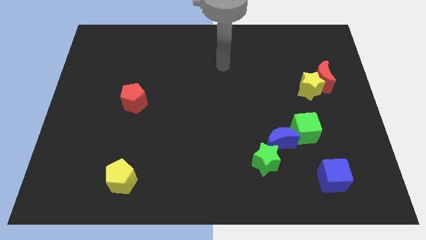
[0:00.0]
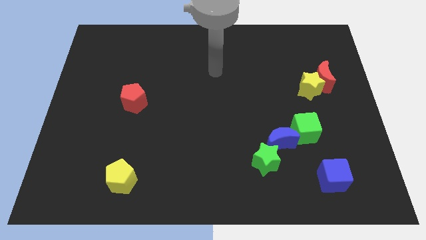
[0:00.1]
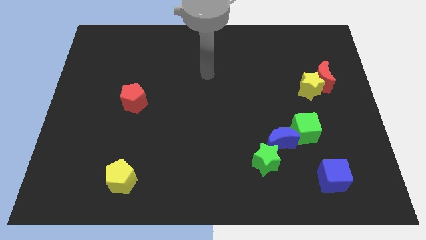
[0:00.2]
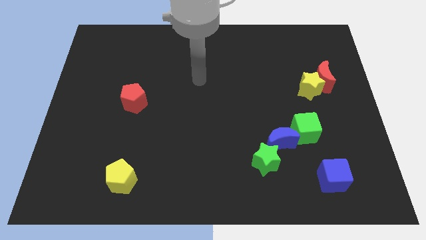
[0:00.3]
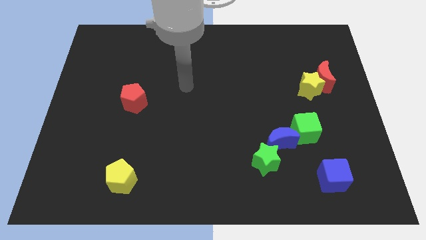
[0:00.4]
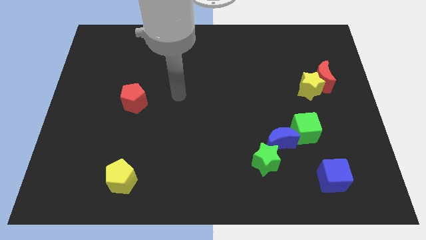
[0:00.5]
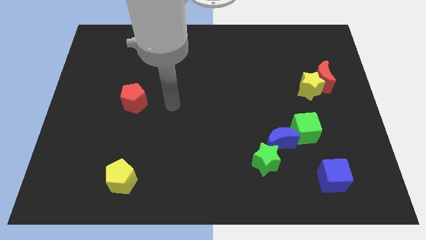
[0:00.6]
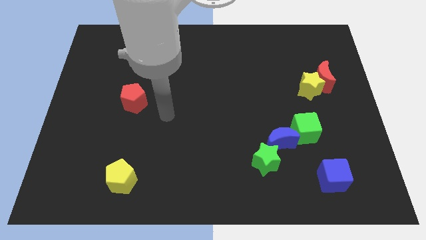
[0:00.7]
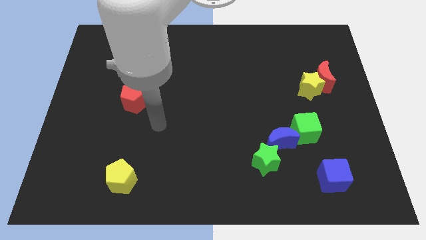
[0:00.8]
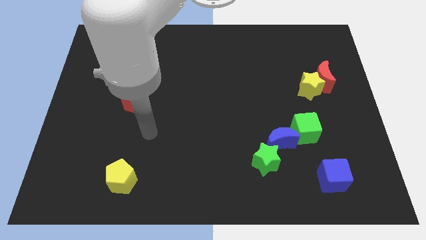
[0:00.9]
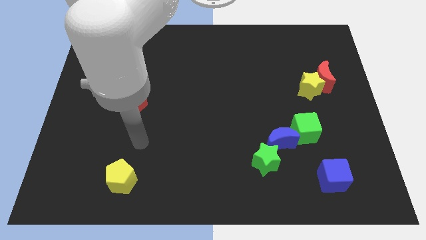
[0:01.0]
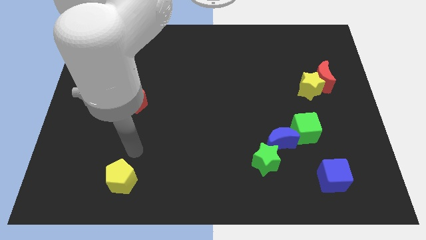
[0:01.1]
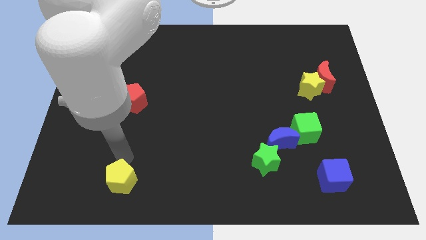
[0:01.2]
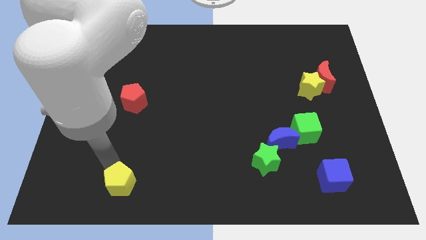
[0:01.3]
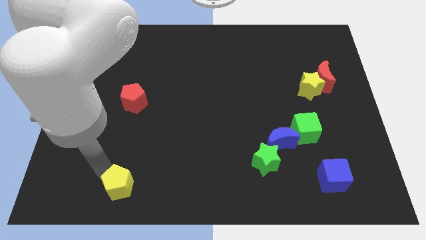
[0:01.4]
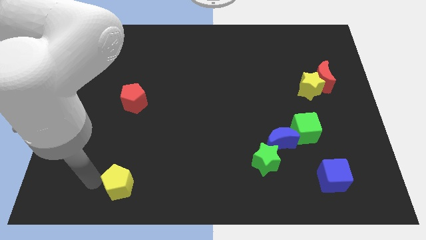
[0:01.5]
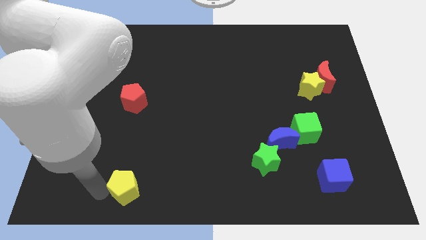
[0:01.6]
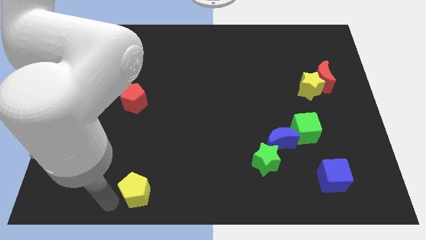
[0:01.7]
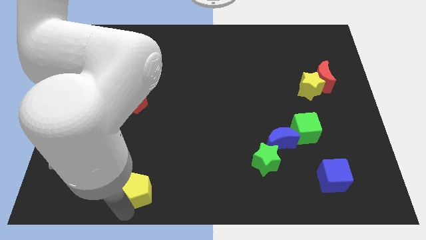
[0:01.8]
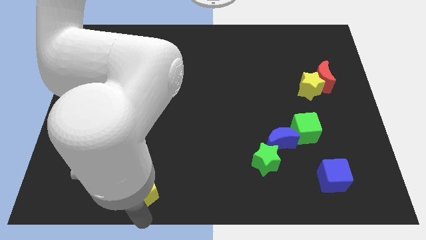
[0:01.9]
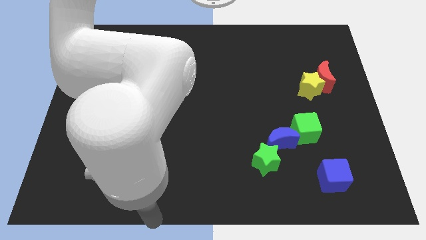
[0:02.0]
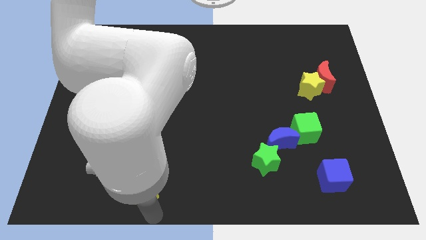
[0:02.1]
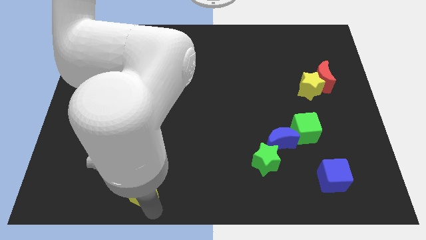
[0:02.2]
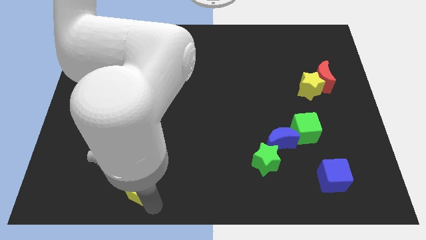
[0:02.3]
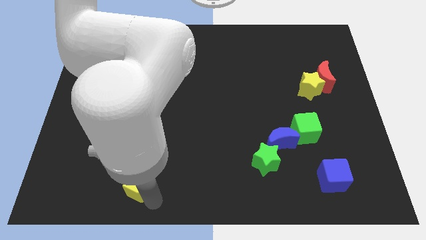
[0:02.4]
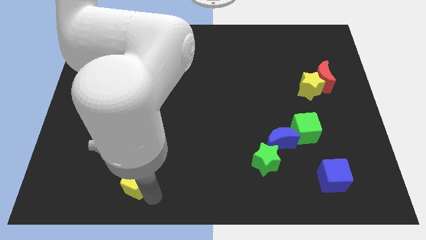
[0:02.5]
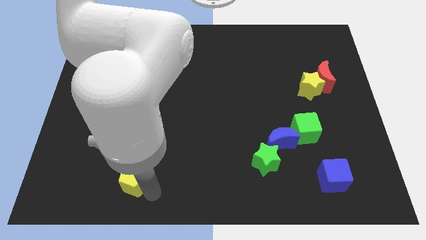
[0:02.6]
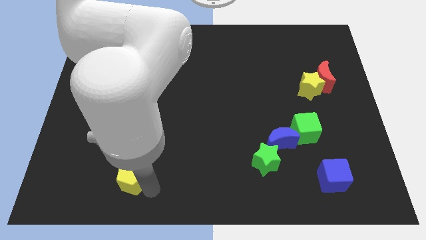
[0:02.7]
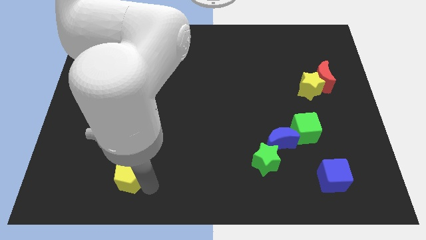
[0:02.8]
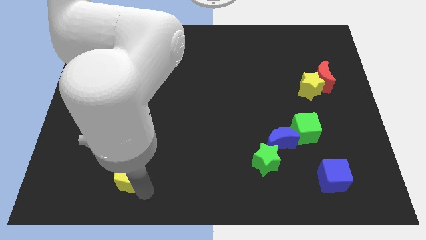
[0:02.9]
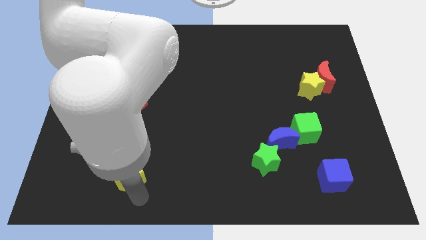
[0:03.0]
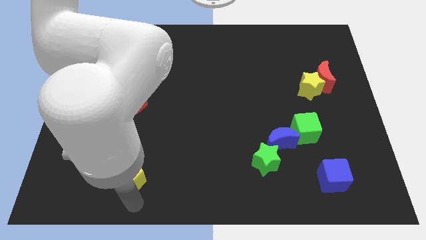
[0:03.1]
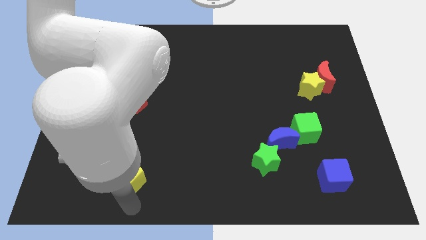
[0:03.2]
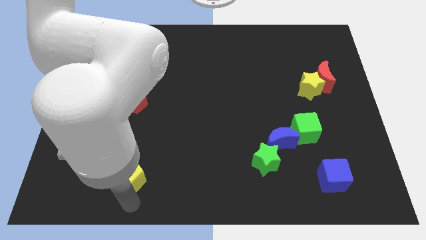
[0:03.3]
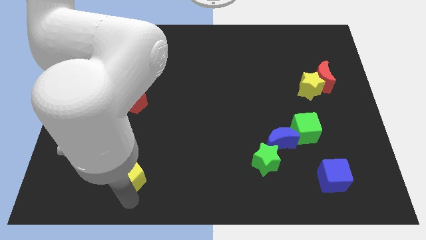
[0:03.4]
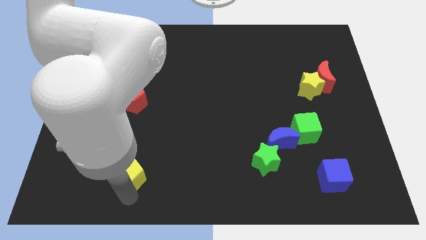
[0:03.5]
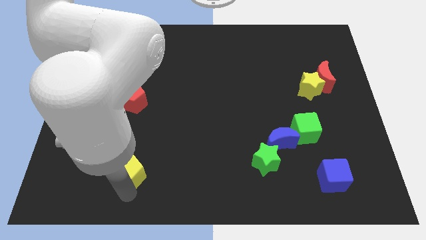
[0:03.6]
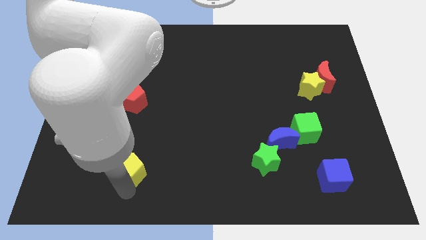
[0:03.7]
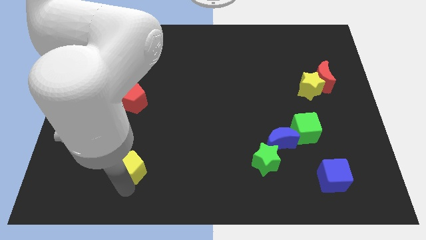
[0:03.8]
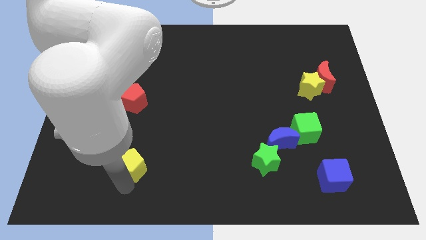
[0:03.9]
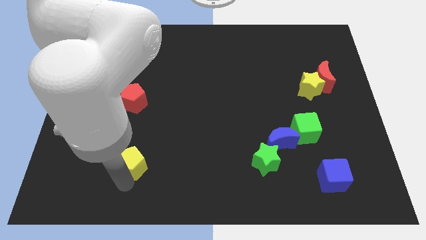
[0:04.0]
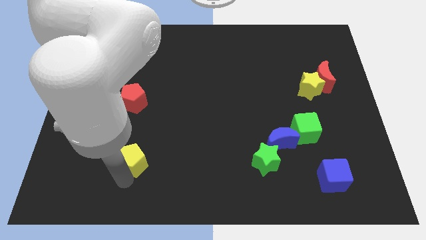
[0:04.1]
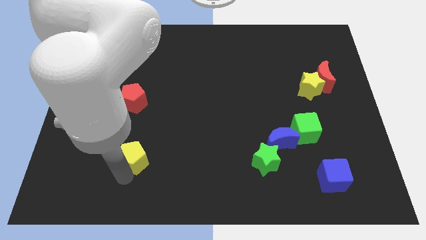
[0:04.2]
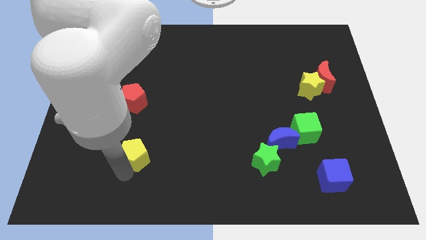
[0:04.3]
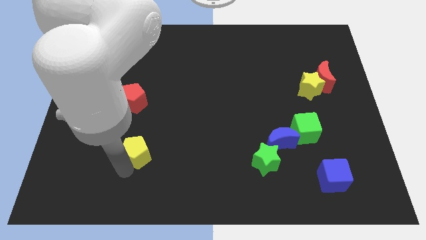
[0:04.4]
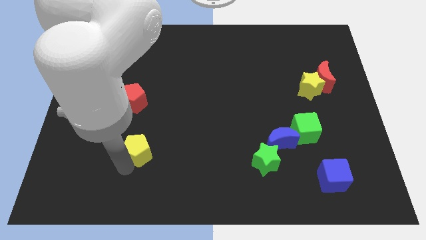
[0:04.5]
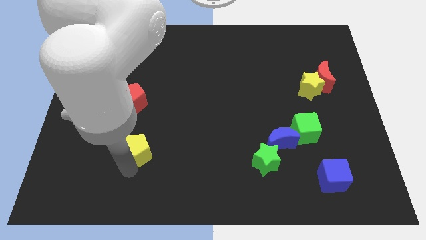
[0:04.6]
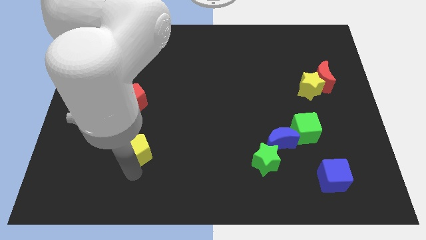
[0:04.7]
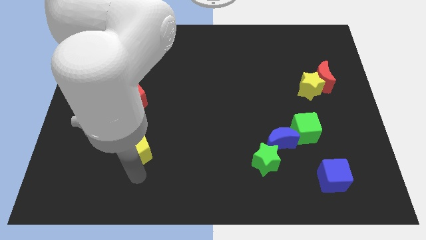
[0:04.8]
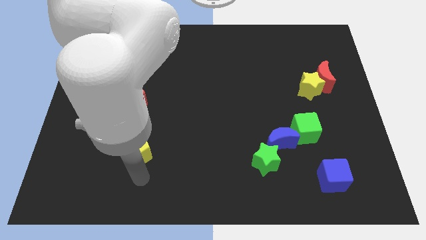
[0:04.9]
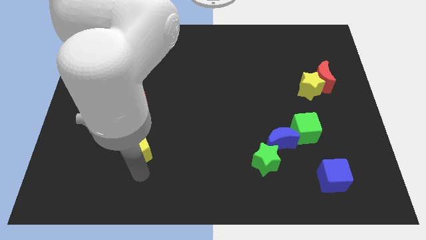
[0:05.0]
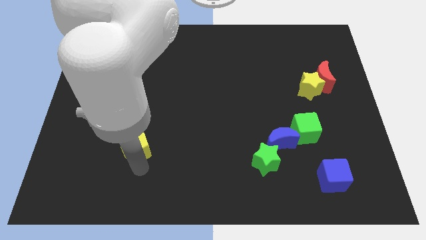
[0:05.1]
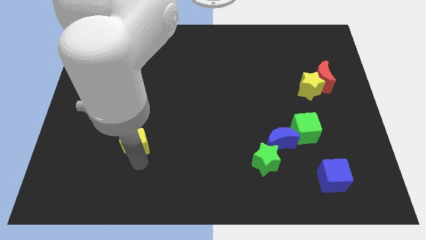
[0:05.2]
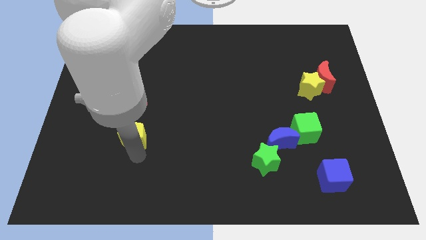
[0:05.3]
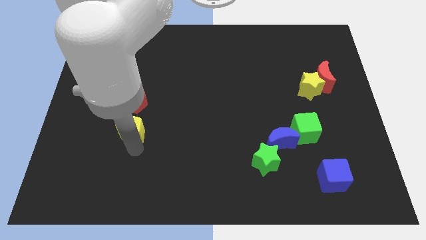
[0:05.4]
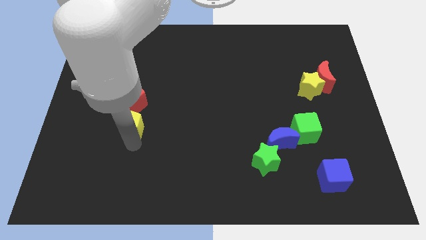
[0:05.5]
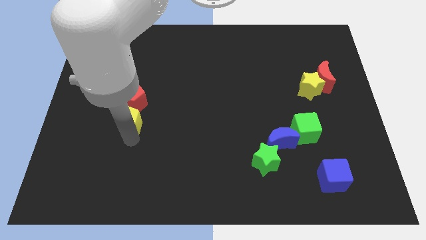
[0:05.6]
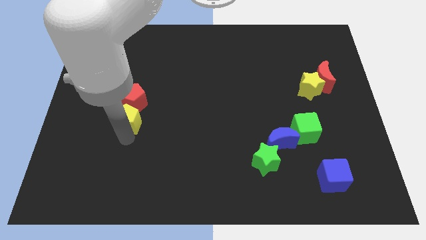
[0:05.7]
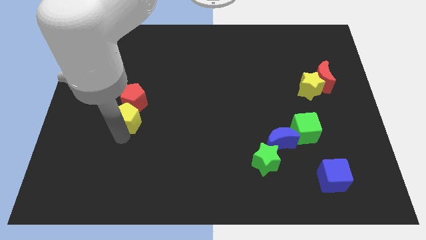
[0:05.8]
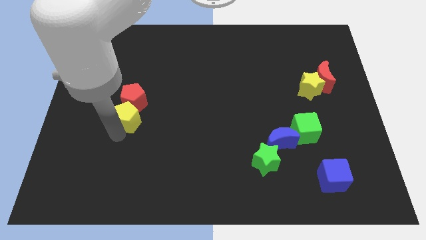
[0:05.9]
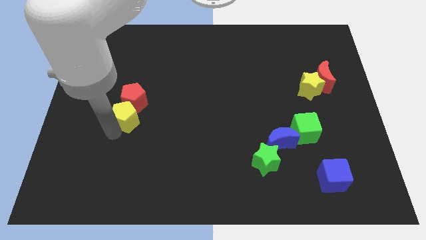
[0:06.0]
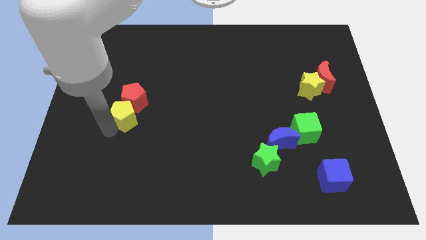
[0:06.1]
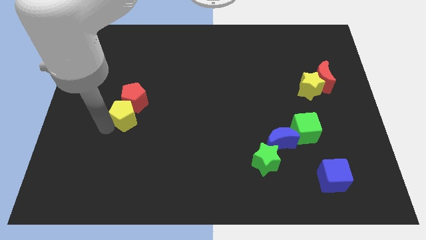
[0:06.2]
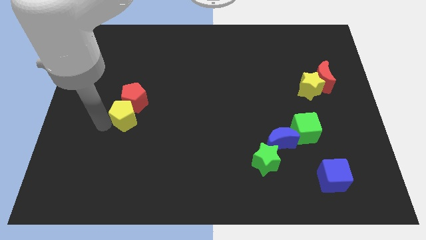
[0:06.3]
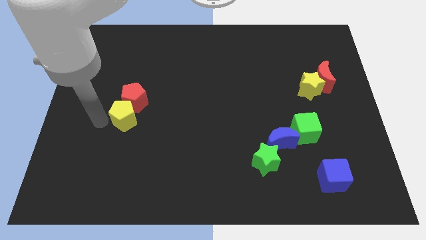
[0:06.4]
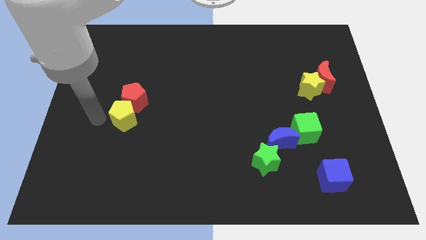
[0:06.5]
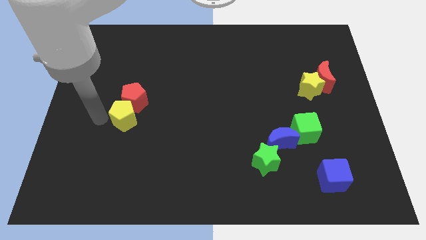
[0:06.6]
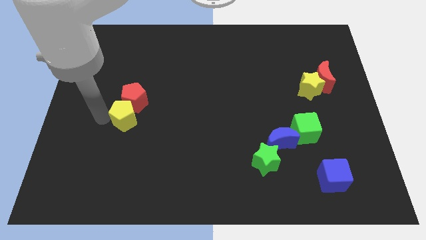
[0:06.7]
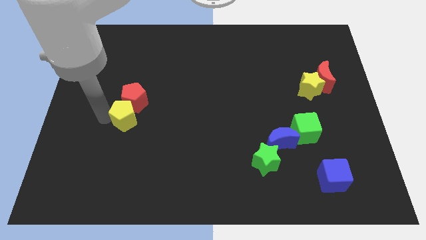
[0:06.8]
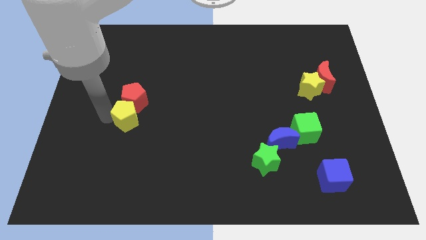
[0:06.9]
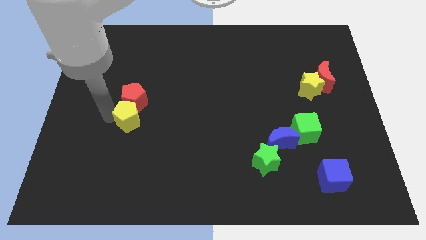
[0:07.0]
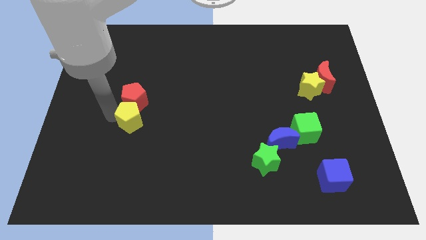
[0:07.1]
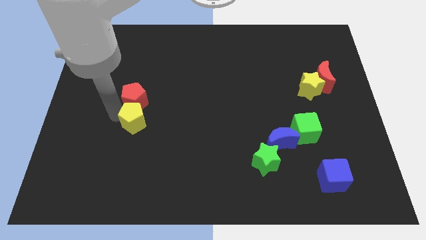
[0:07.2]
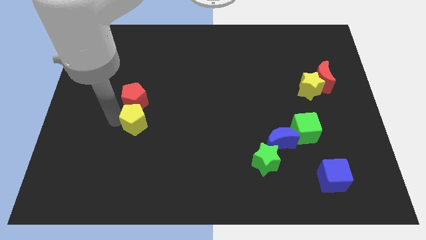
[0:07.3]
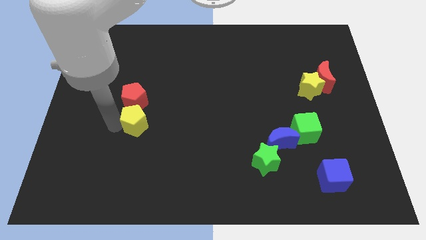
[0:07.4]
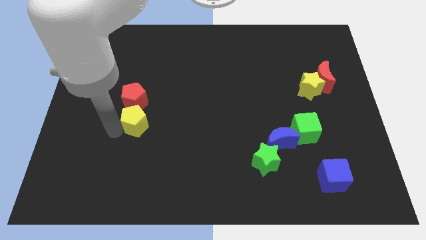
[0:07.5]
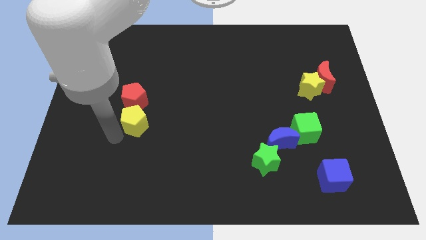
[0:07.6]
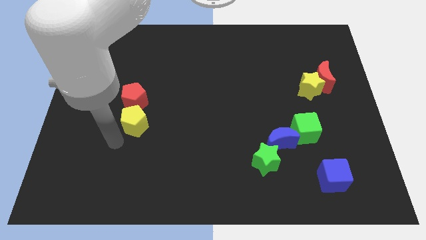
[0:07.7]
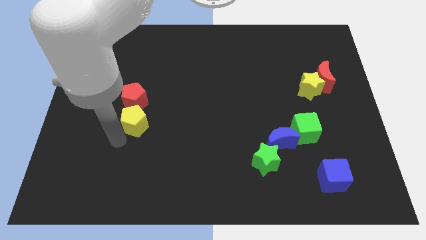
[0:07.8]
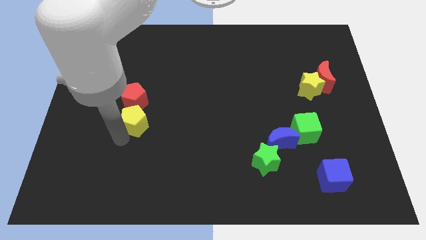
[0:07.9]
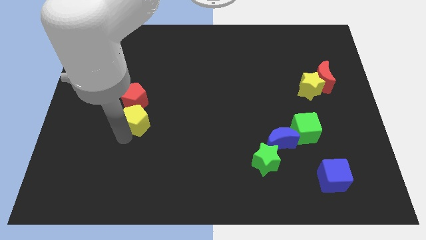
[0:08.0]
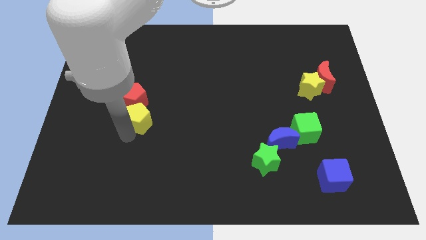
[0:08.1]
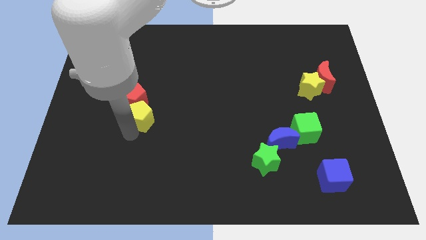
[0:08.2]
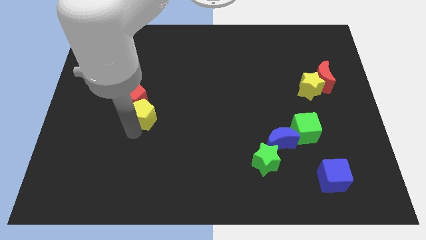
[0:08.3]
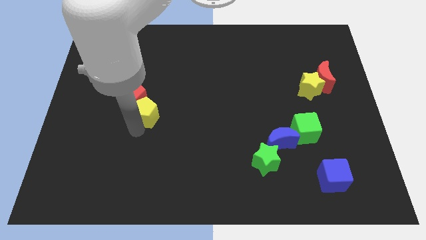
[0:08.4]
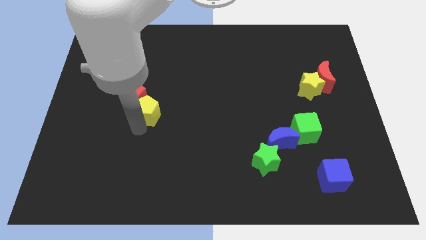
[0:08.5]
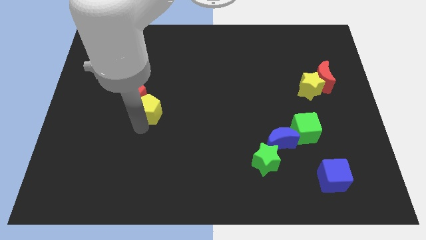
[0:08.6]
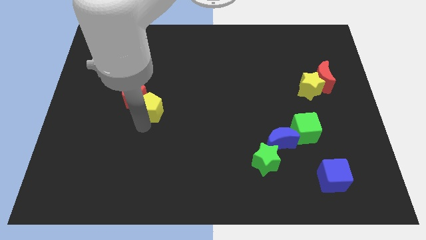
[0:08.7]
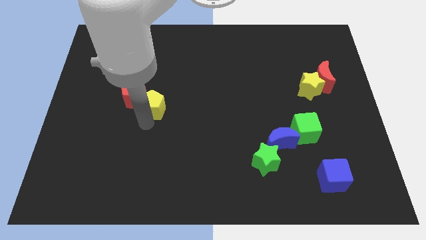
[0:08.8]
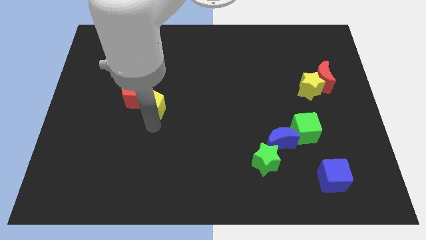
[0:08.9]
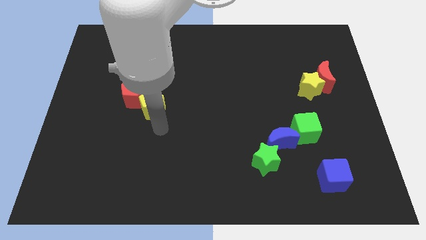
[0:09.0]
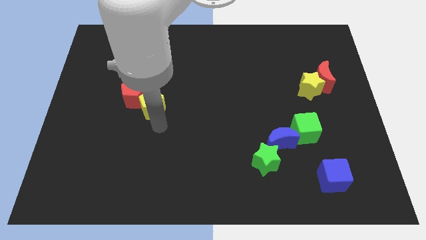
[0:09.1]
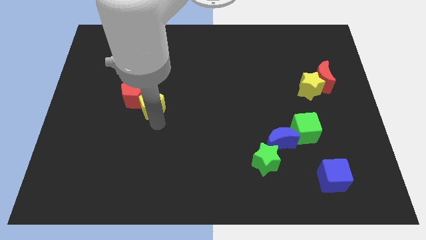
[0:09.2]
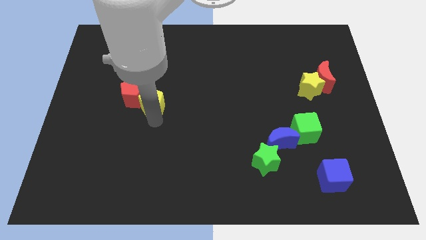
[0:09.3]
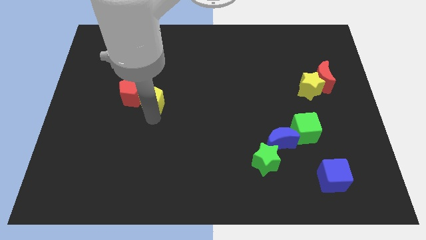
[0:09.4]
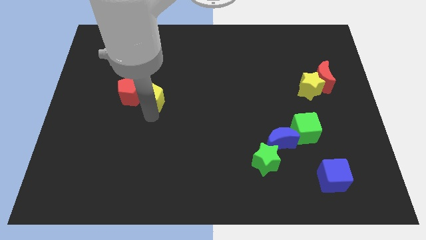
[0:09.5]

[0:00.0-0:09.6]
slide the yellow pentagon upwards
